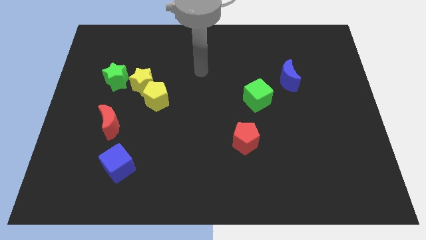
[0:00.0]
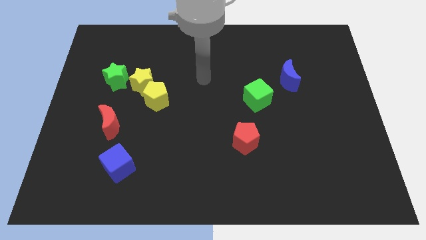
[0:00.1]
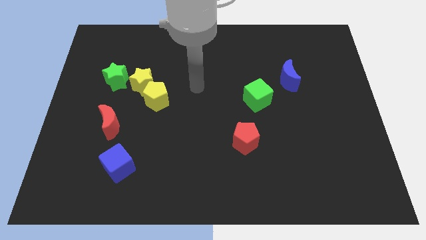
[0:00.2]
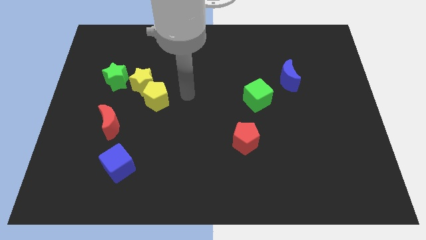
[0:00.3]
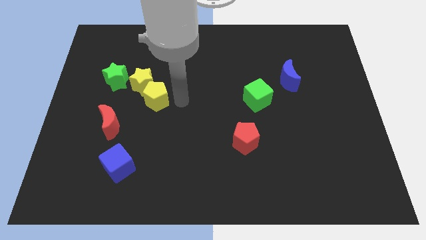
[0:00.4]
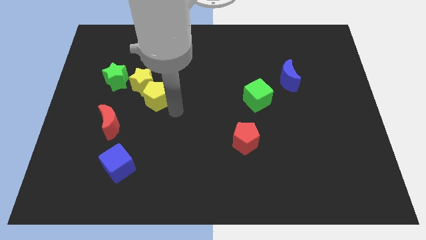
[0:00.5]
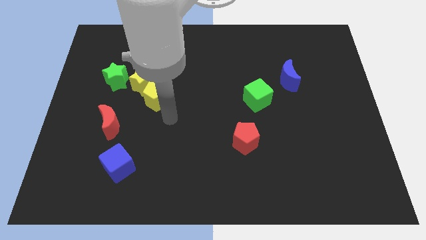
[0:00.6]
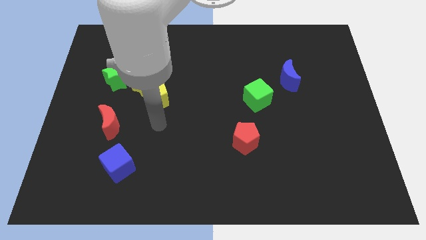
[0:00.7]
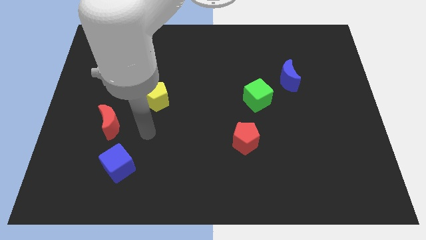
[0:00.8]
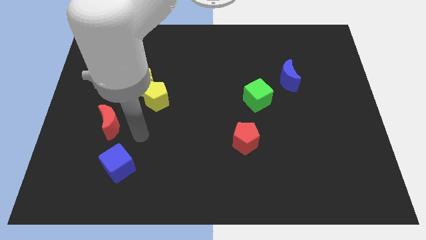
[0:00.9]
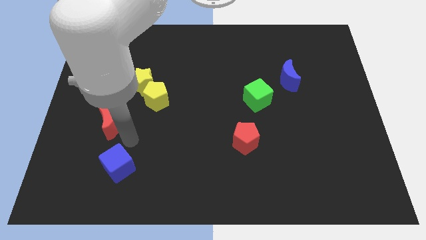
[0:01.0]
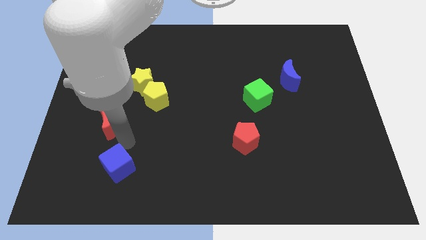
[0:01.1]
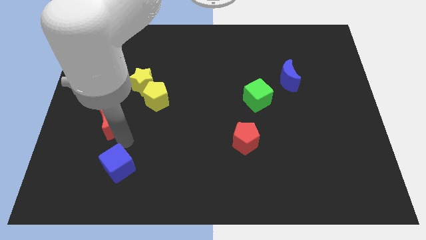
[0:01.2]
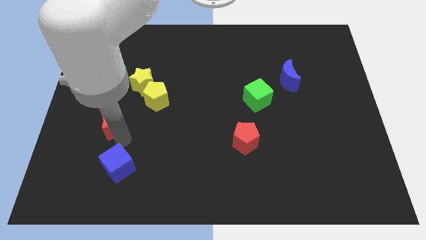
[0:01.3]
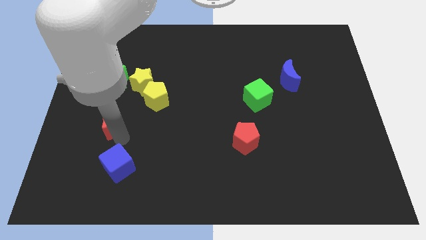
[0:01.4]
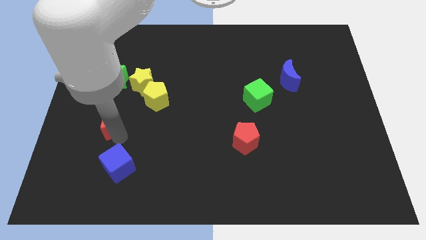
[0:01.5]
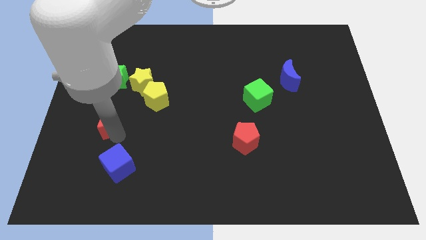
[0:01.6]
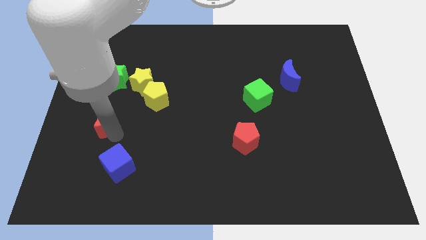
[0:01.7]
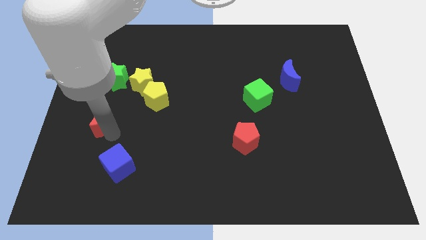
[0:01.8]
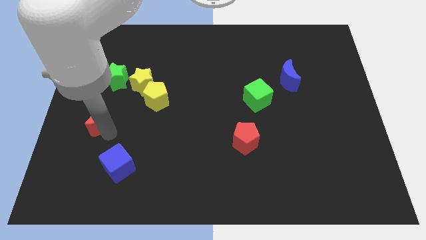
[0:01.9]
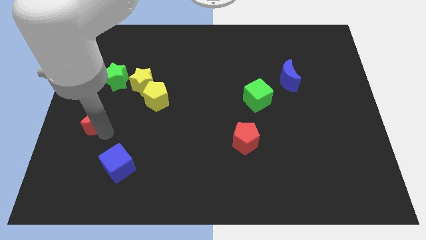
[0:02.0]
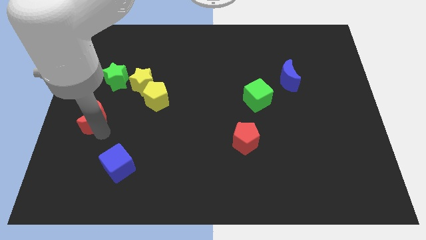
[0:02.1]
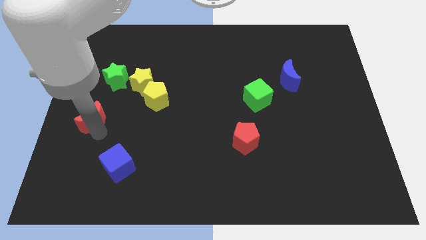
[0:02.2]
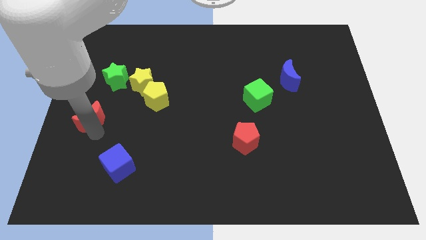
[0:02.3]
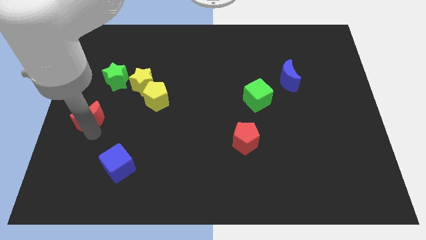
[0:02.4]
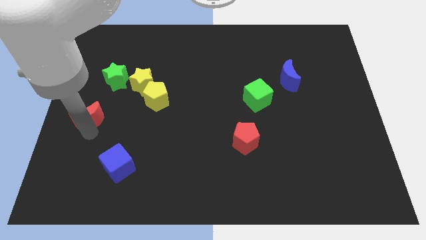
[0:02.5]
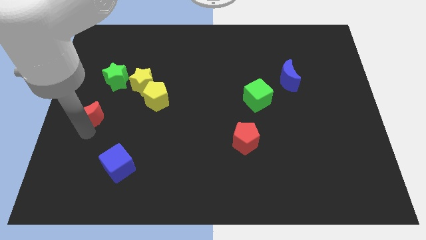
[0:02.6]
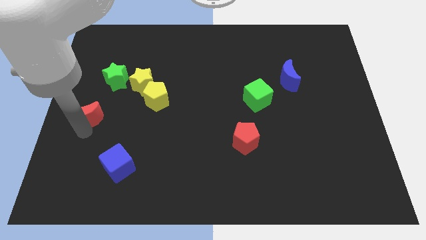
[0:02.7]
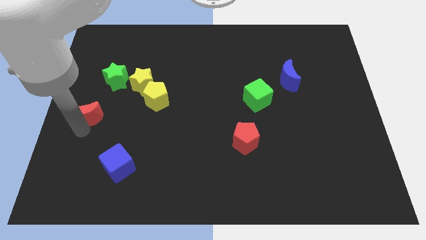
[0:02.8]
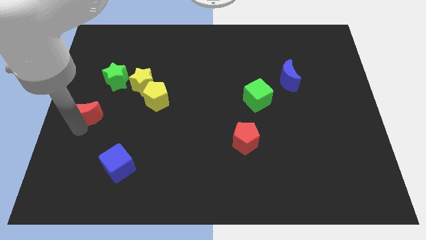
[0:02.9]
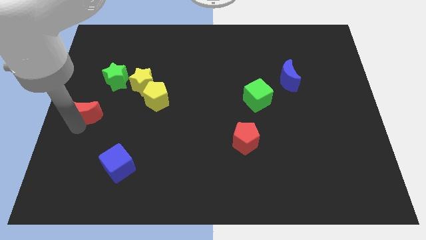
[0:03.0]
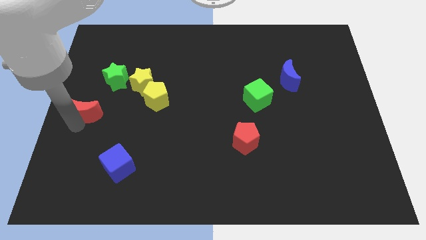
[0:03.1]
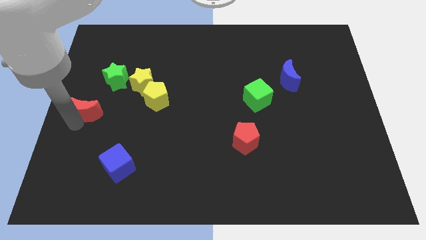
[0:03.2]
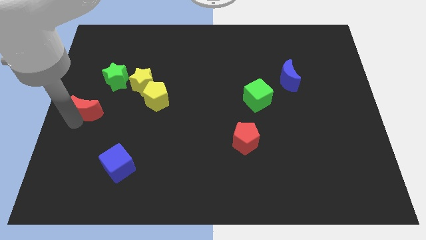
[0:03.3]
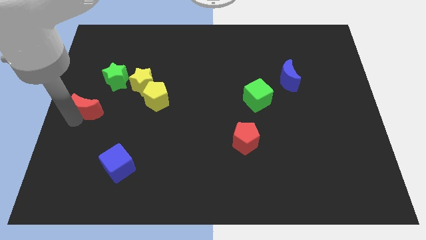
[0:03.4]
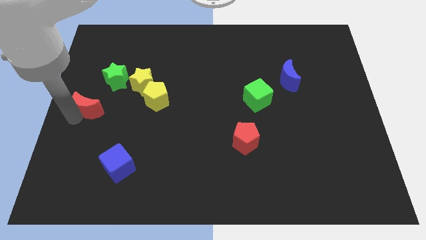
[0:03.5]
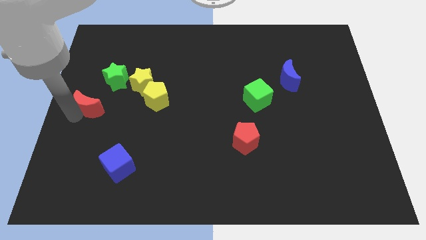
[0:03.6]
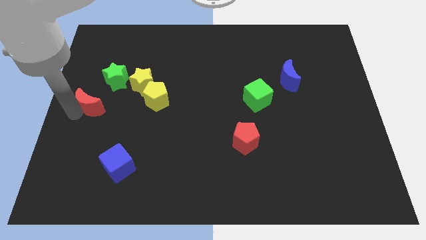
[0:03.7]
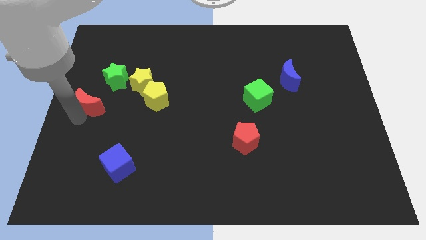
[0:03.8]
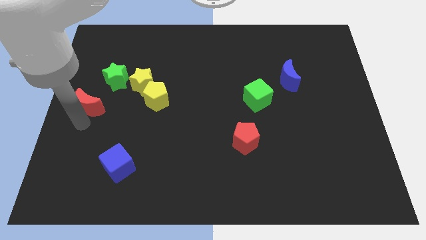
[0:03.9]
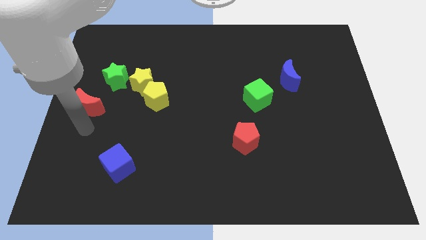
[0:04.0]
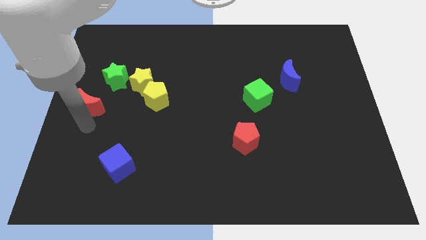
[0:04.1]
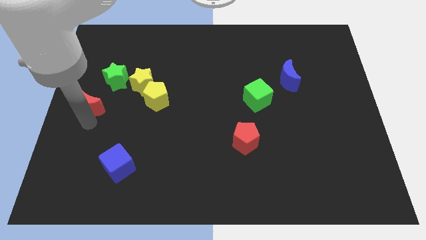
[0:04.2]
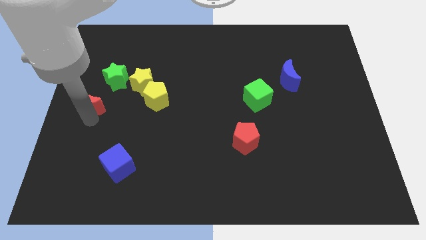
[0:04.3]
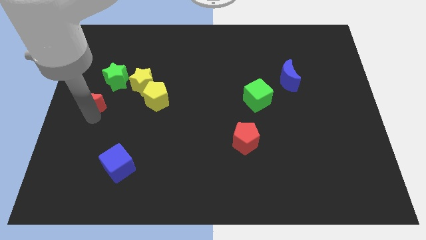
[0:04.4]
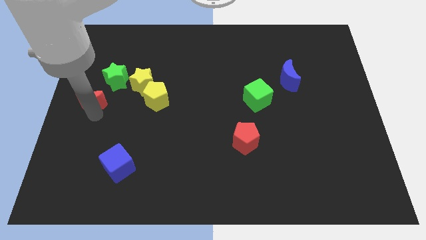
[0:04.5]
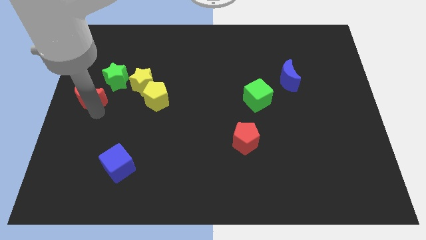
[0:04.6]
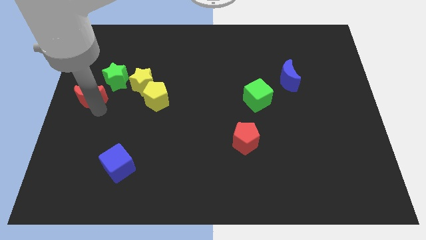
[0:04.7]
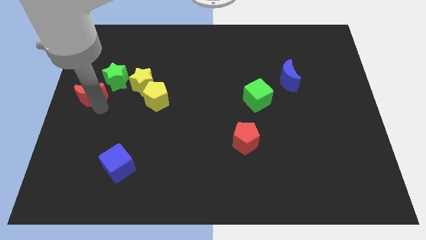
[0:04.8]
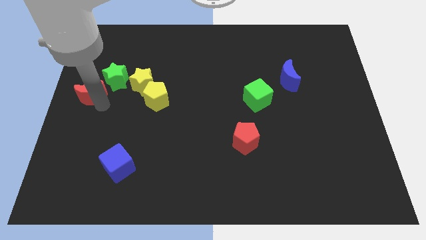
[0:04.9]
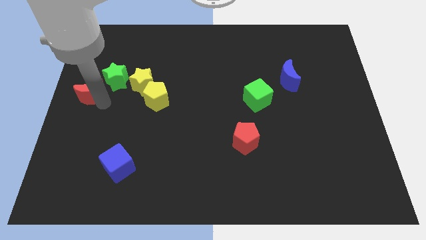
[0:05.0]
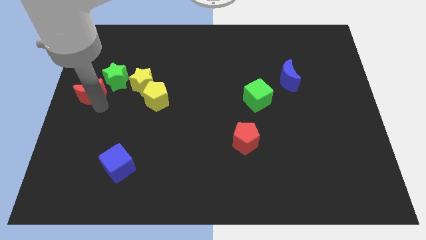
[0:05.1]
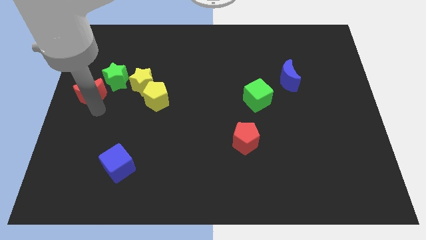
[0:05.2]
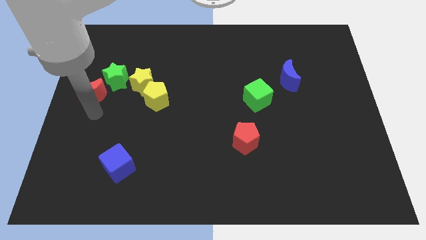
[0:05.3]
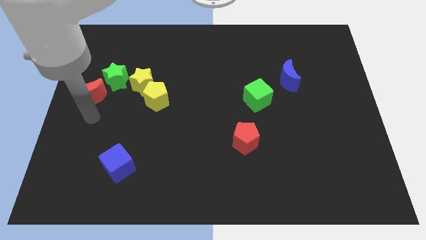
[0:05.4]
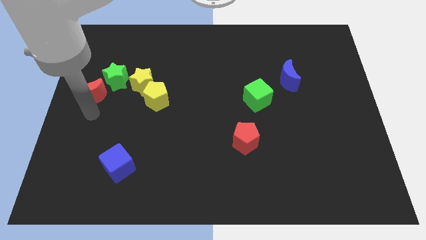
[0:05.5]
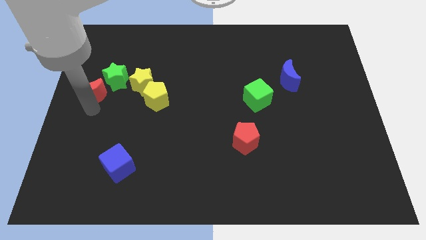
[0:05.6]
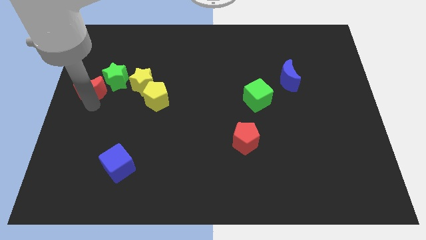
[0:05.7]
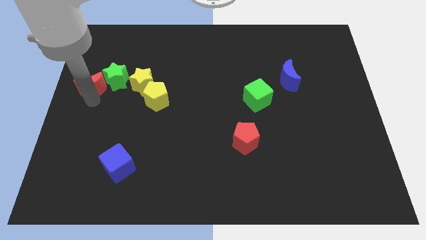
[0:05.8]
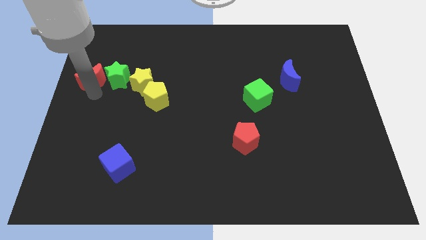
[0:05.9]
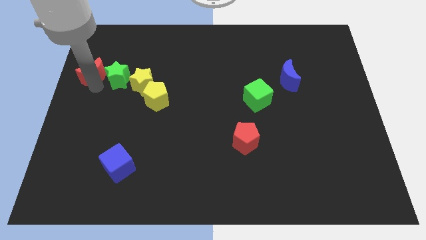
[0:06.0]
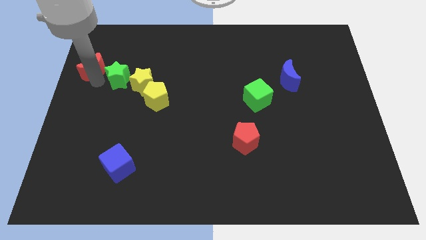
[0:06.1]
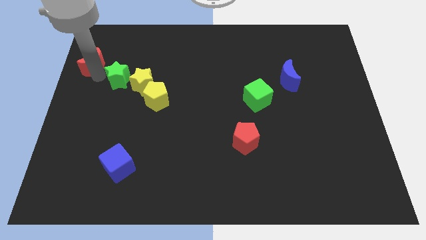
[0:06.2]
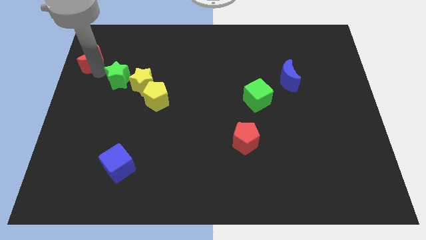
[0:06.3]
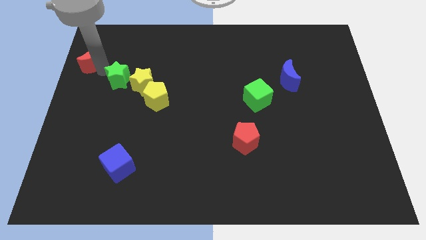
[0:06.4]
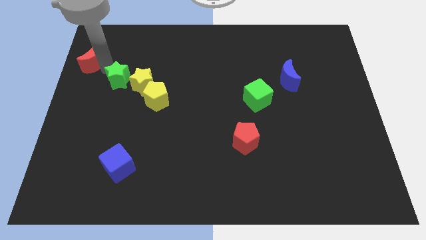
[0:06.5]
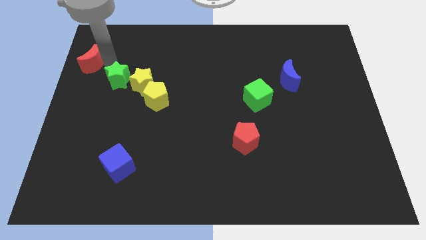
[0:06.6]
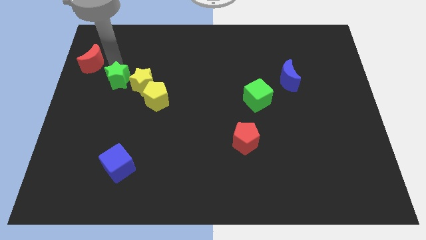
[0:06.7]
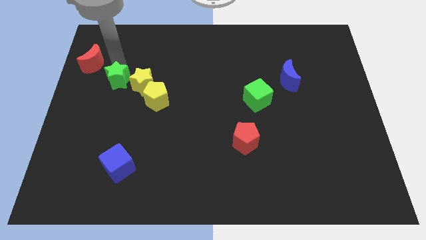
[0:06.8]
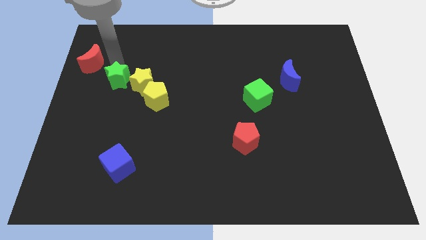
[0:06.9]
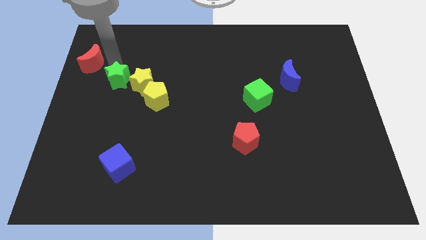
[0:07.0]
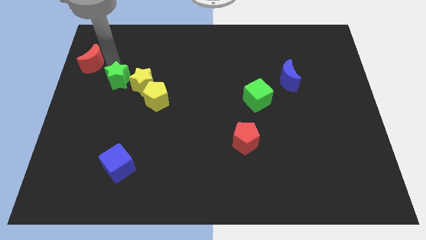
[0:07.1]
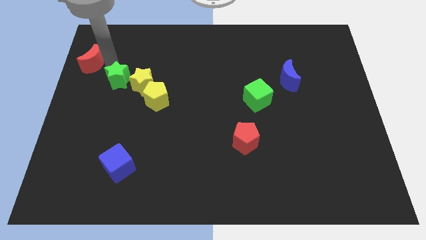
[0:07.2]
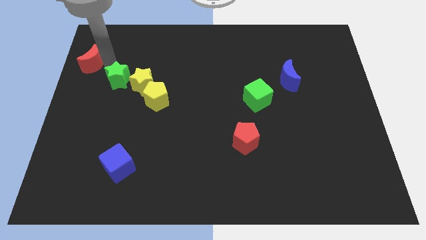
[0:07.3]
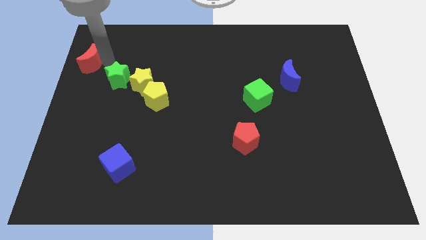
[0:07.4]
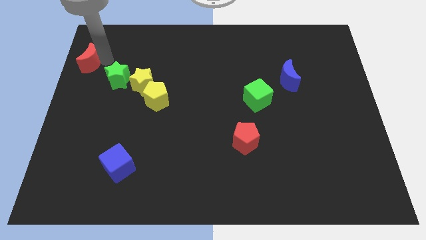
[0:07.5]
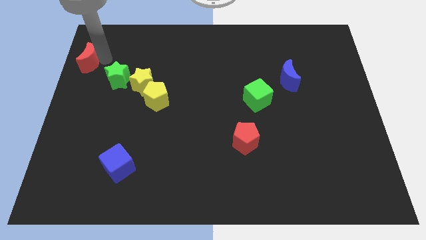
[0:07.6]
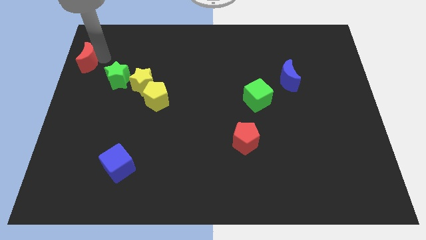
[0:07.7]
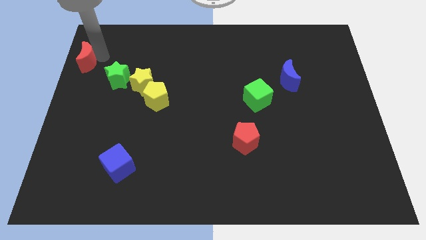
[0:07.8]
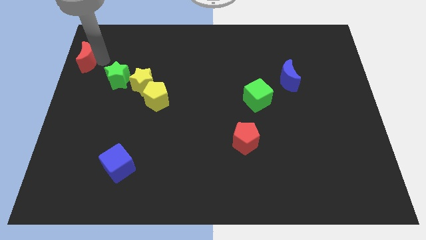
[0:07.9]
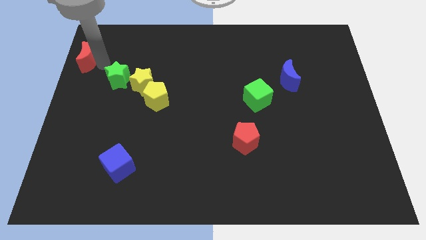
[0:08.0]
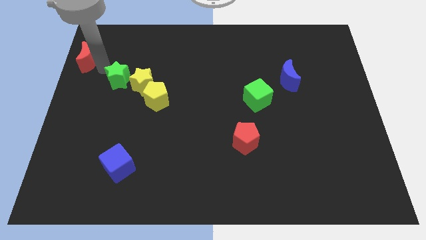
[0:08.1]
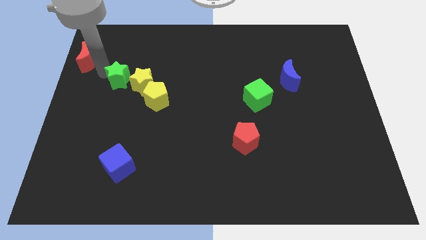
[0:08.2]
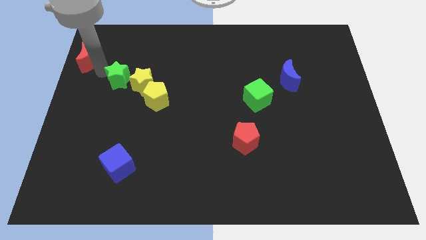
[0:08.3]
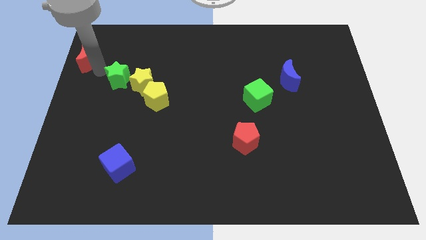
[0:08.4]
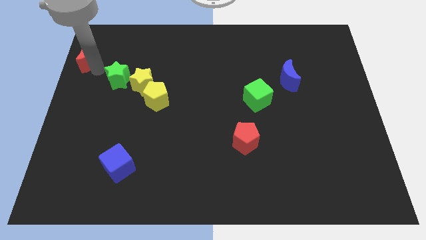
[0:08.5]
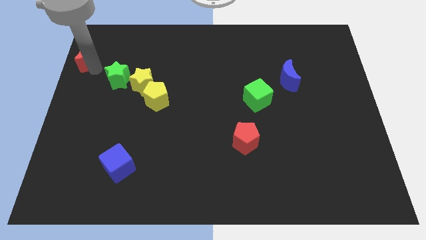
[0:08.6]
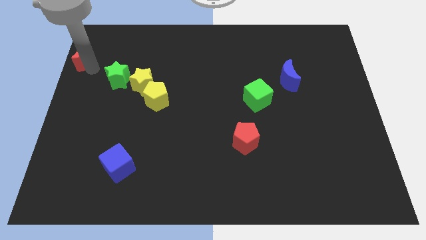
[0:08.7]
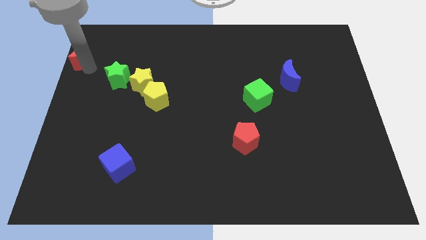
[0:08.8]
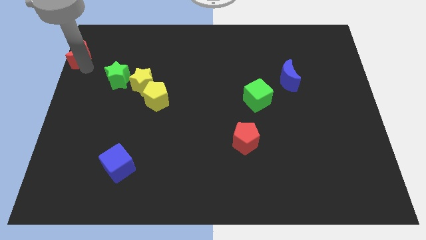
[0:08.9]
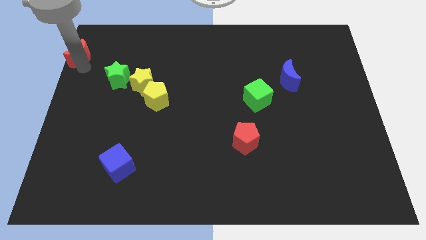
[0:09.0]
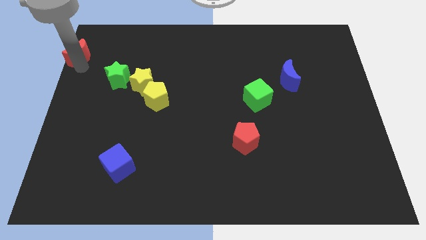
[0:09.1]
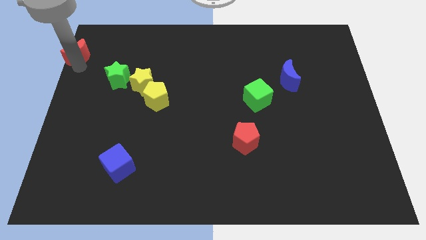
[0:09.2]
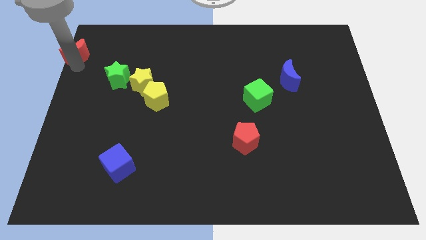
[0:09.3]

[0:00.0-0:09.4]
move the red moon to the top left of the board
